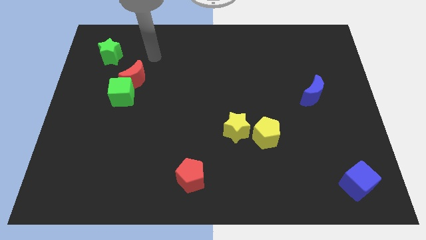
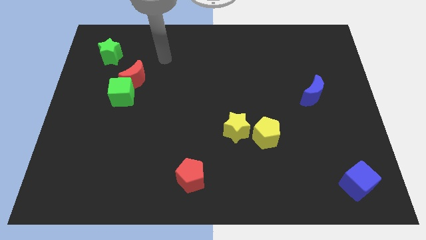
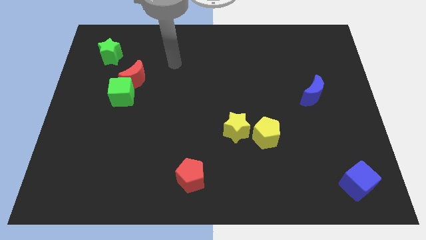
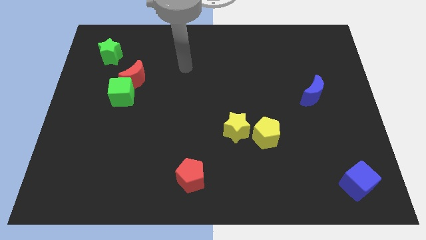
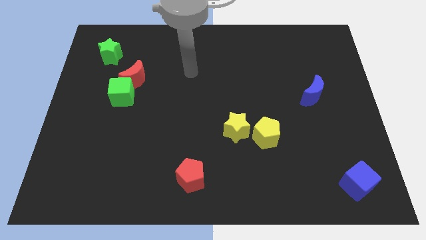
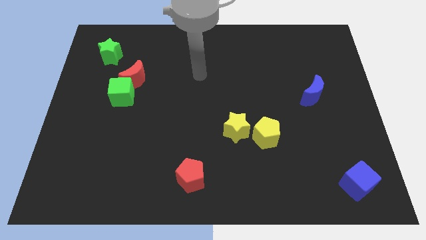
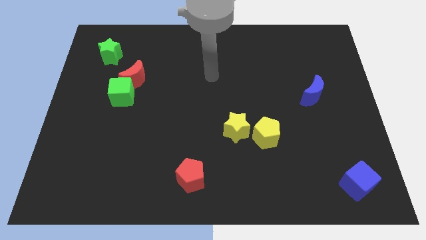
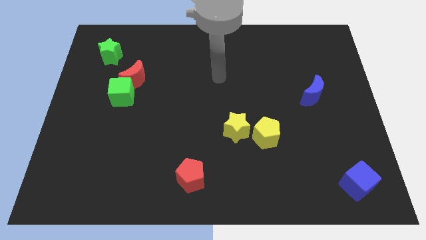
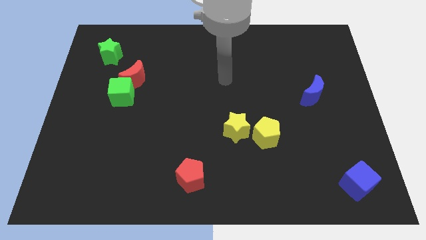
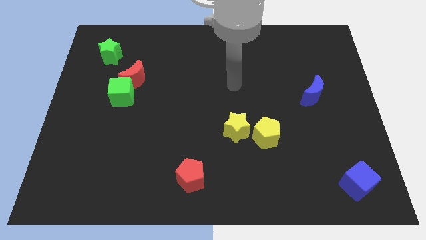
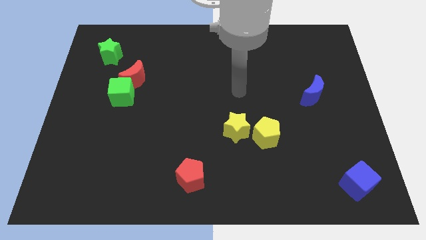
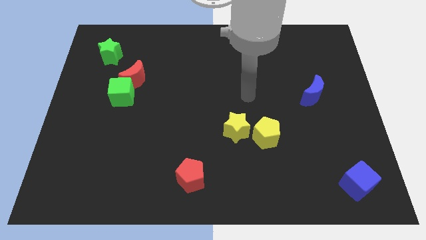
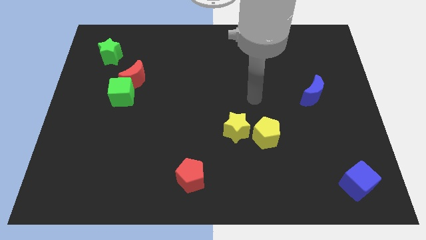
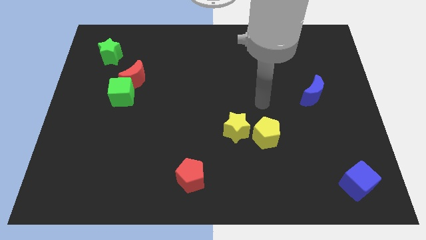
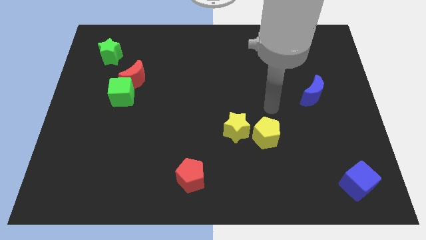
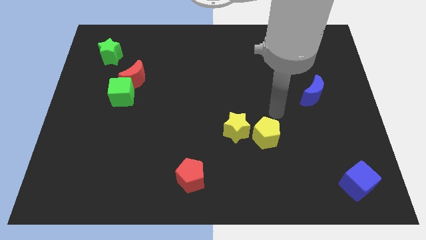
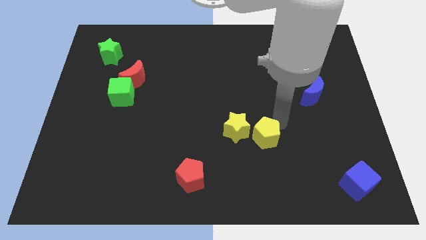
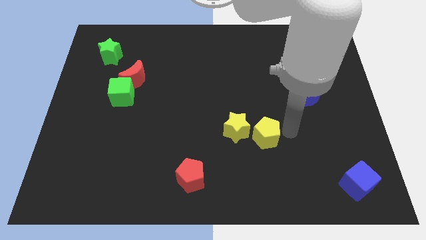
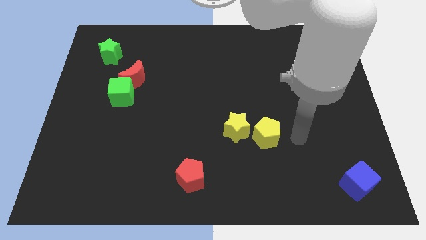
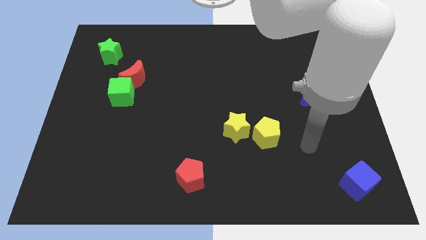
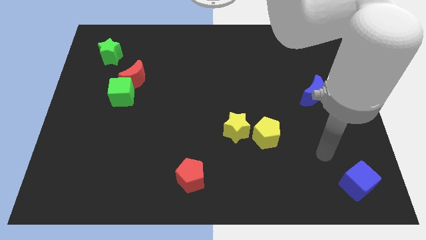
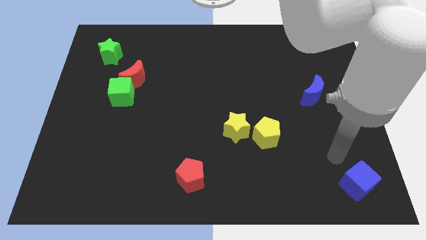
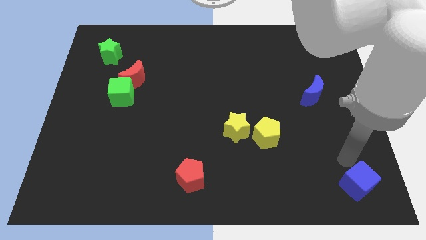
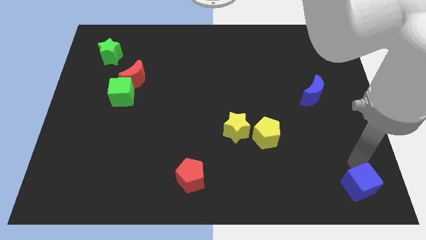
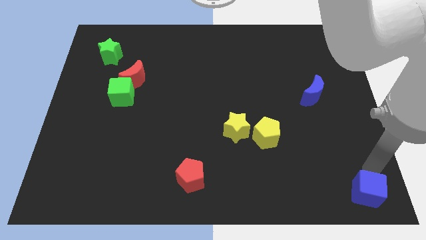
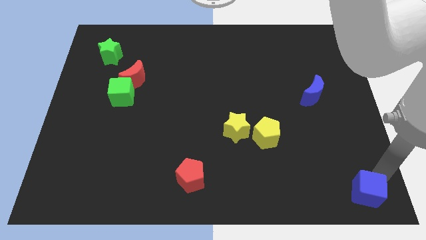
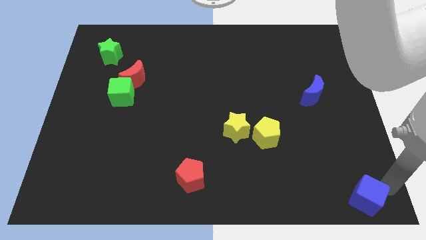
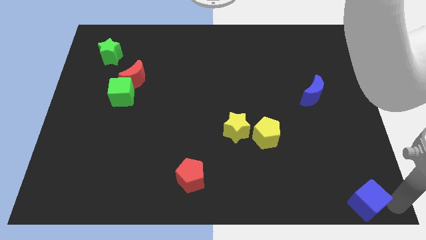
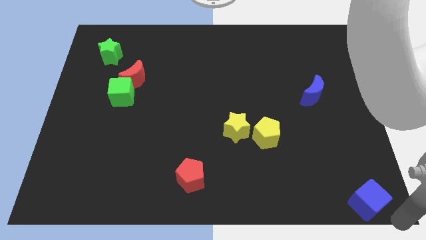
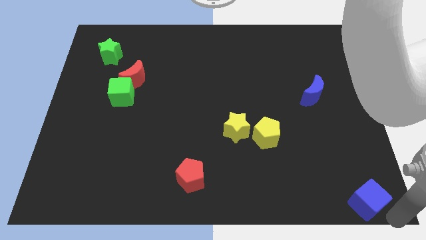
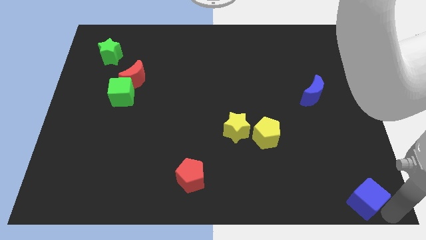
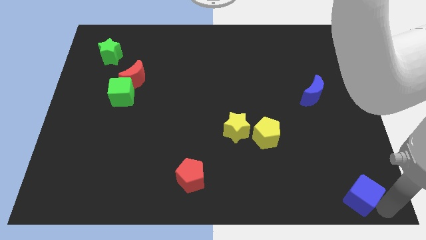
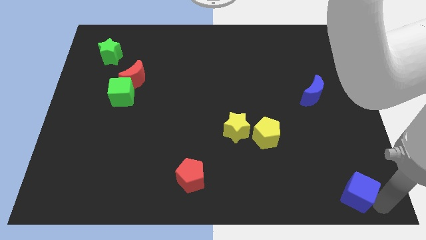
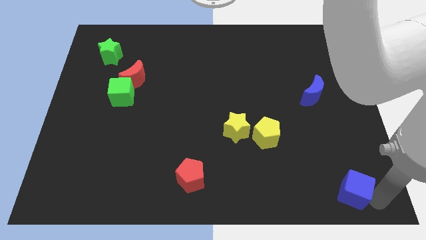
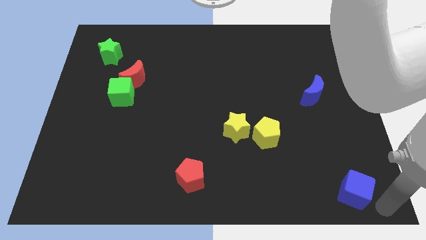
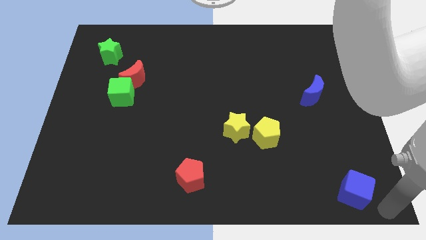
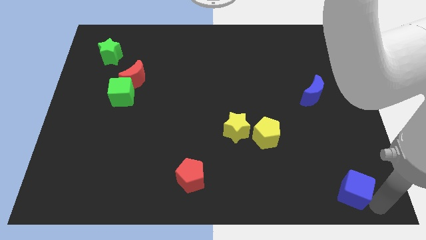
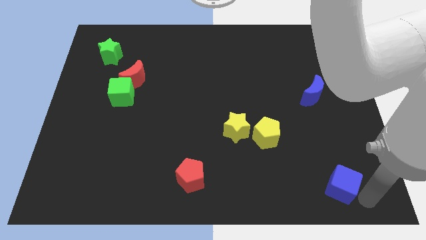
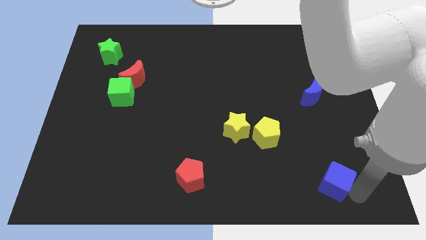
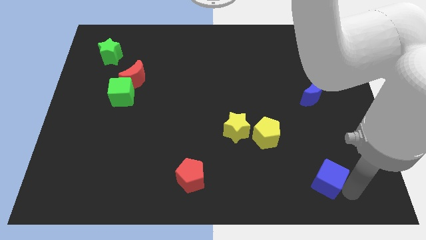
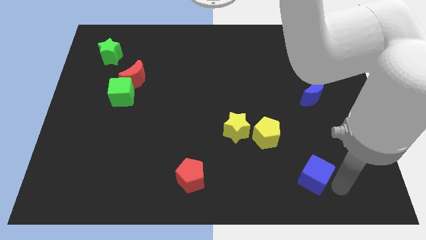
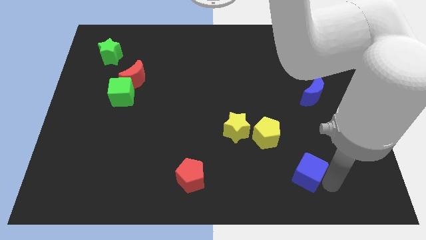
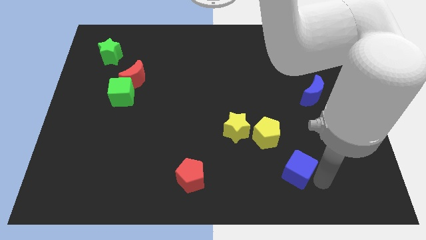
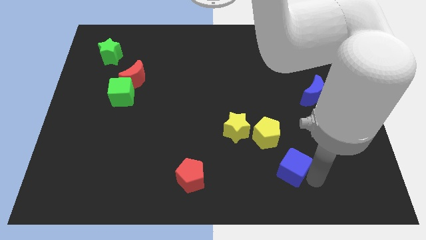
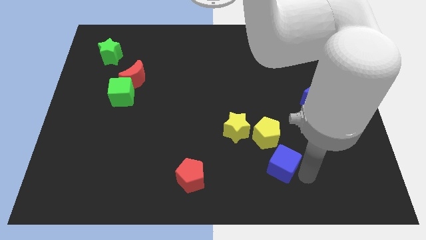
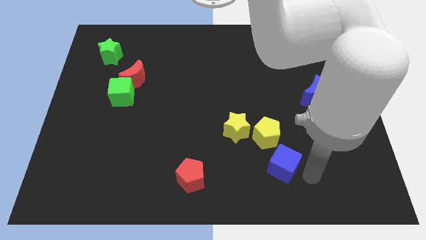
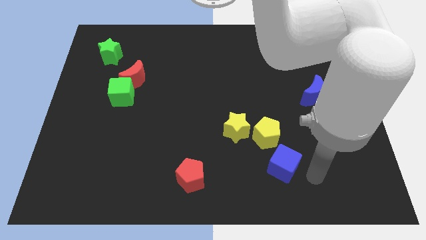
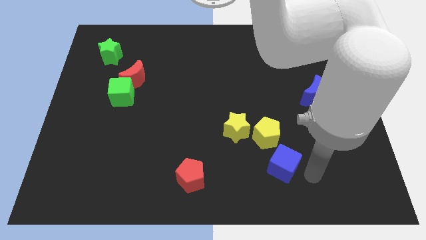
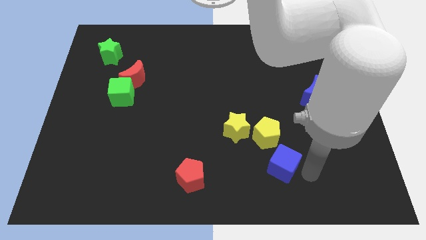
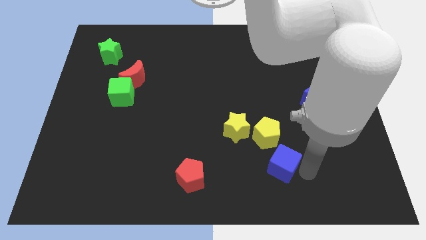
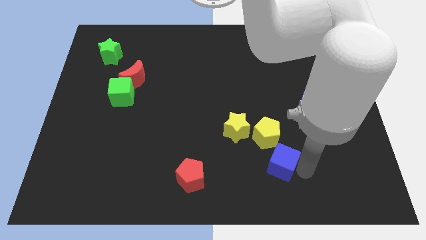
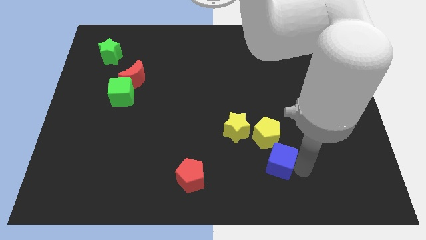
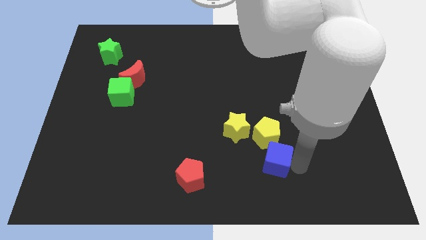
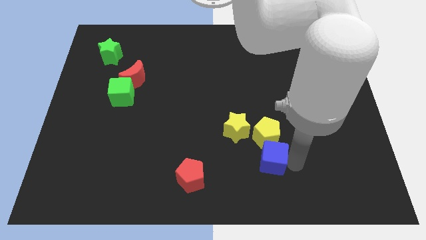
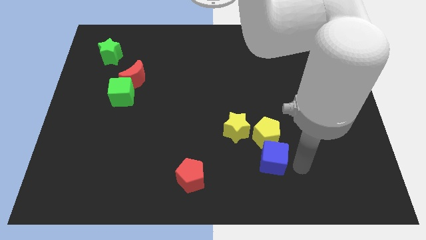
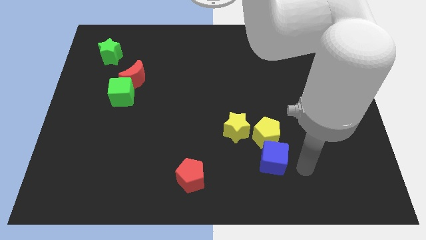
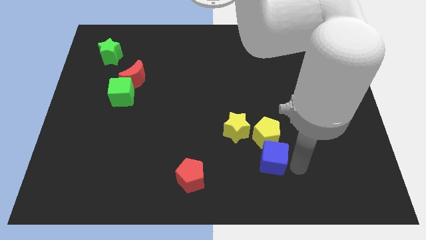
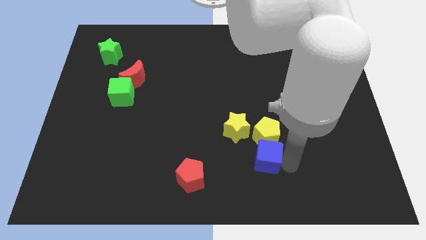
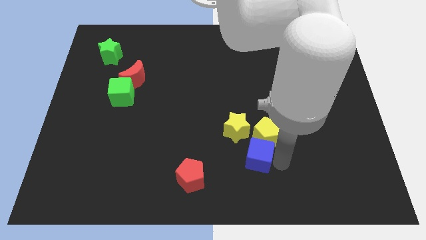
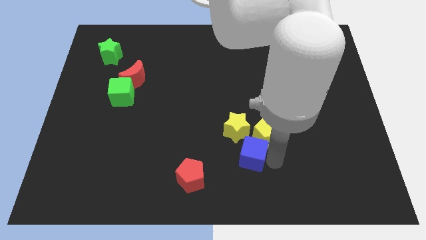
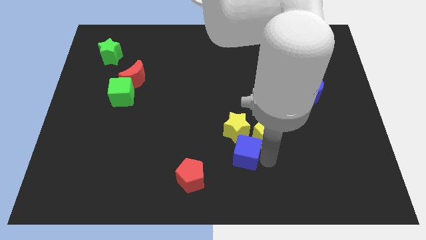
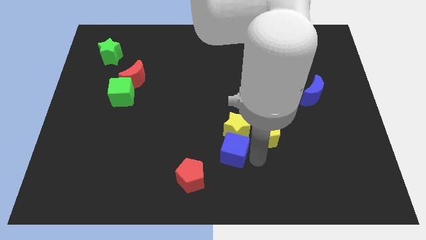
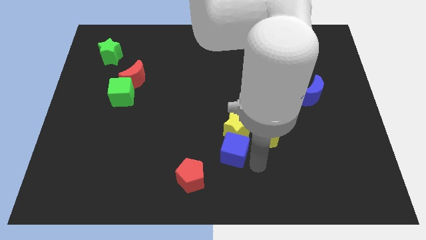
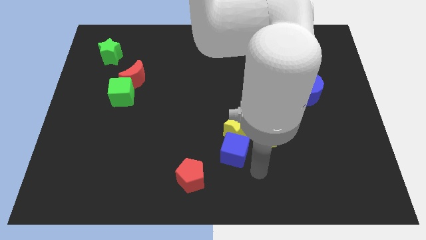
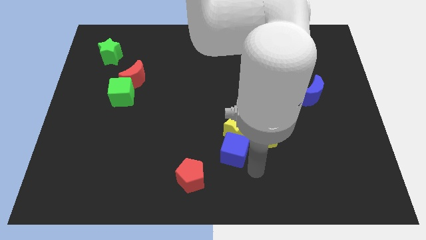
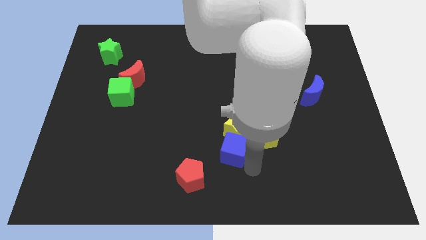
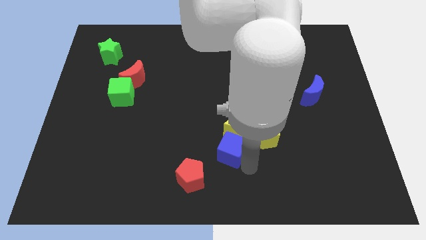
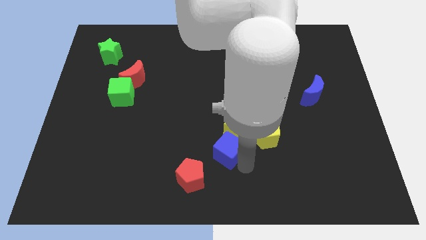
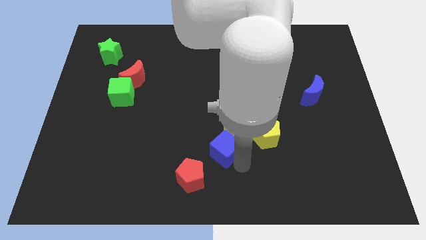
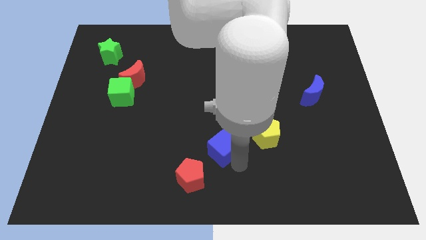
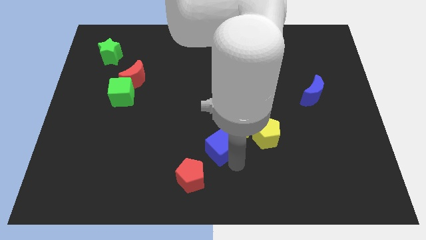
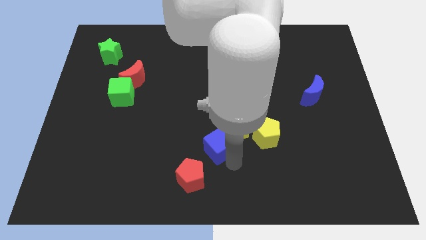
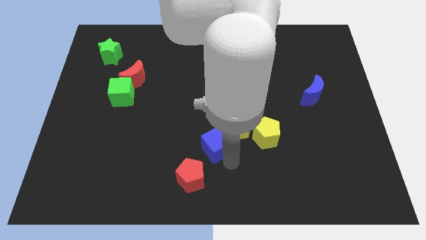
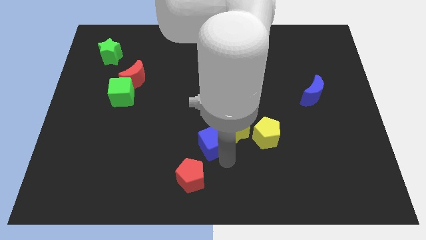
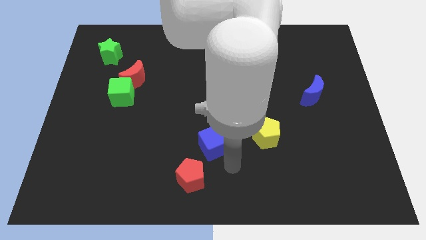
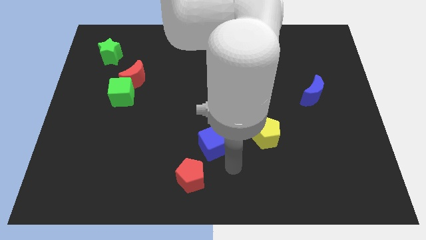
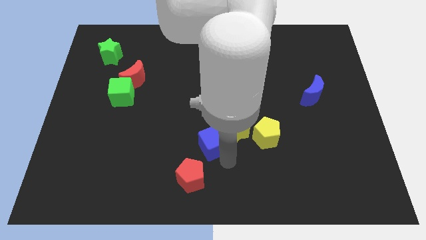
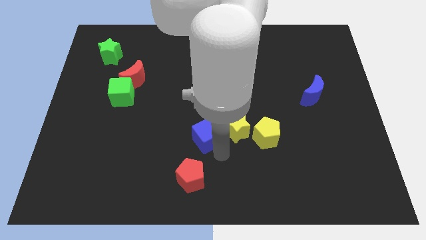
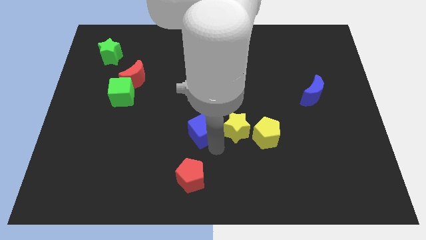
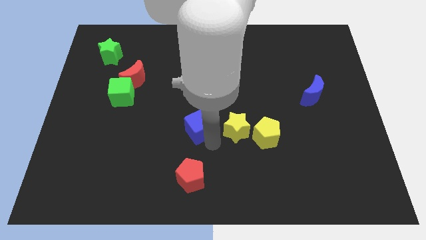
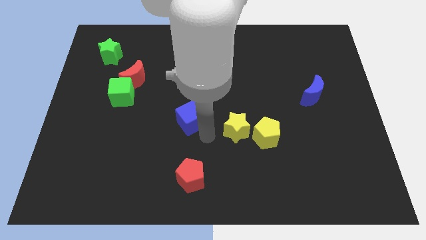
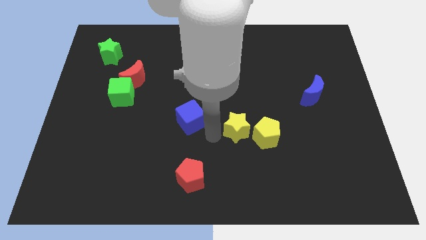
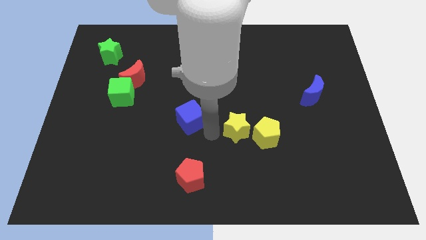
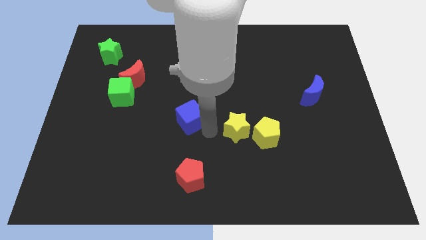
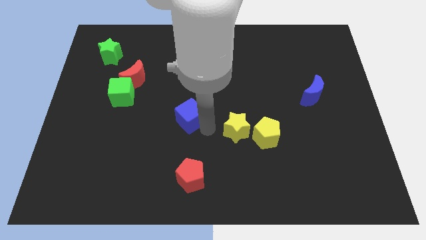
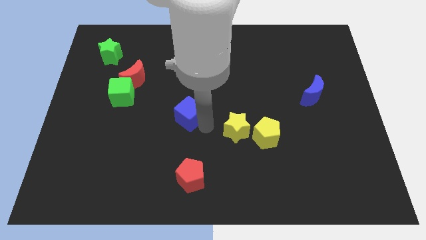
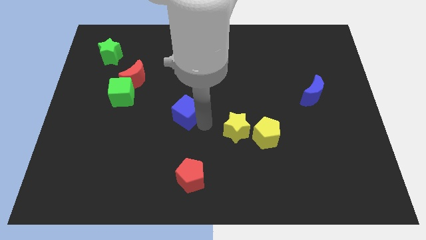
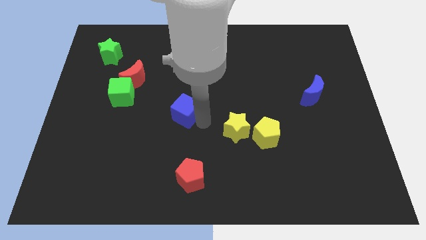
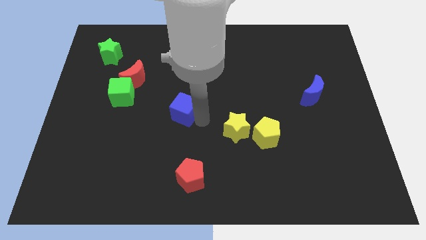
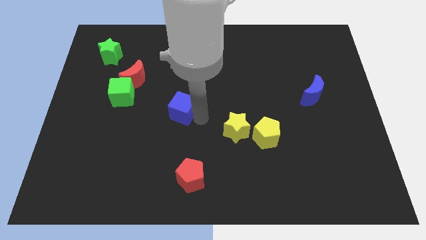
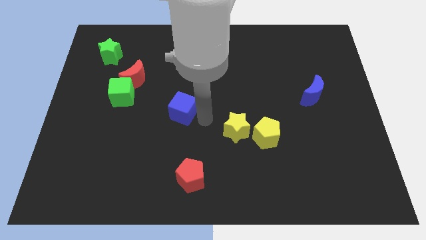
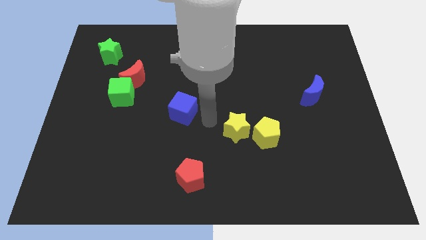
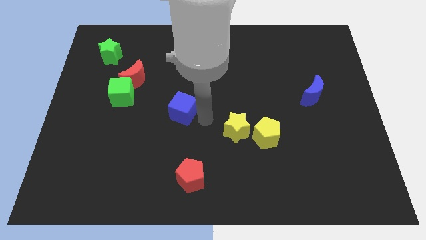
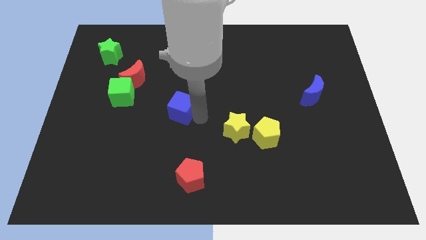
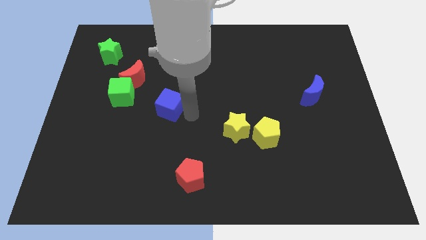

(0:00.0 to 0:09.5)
push the blue cube to the bottom right side of the red moon
